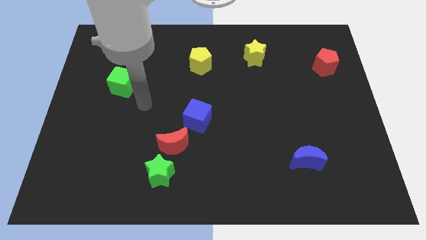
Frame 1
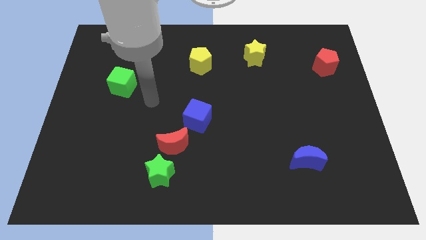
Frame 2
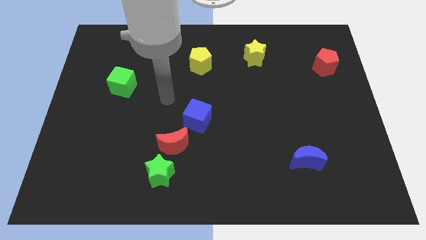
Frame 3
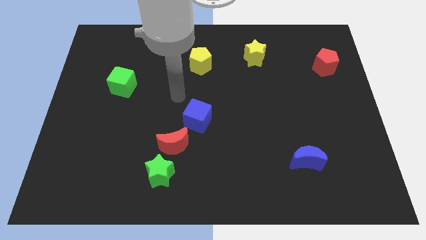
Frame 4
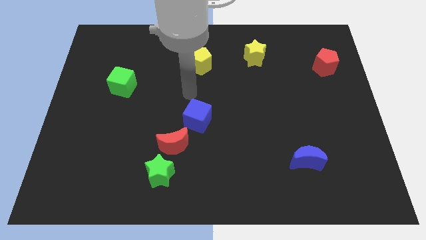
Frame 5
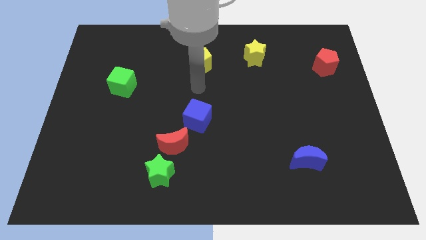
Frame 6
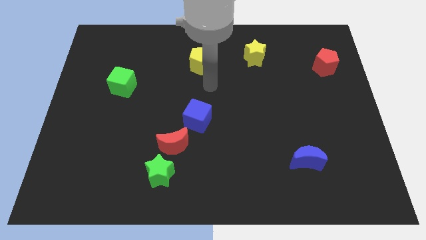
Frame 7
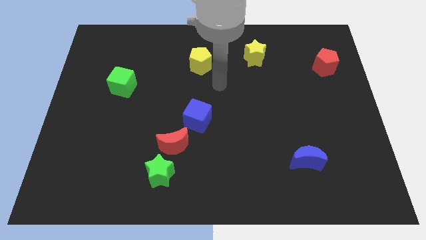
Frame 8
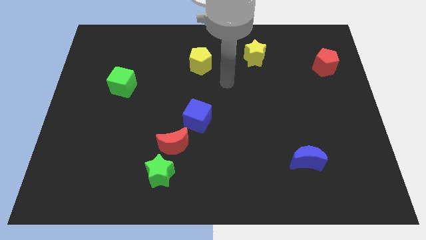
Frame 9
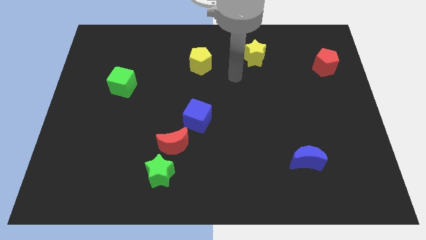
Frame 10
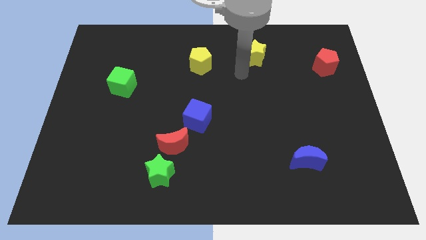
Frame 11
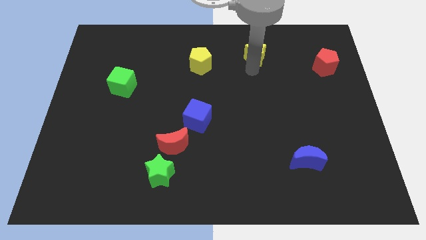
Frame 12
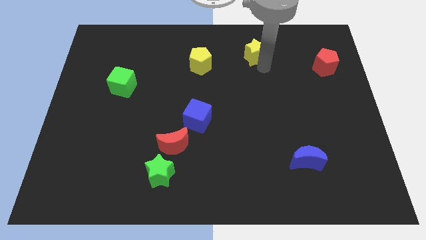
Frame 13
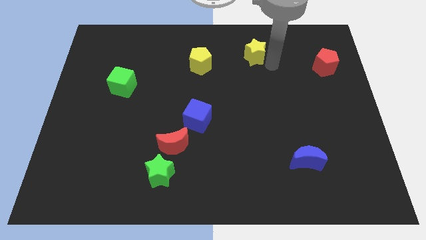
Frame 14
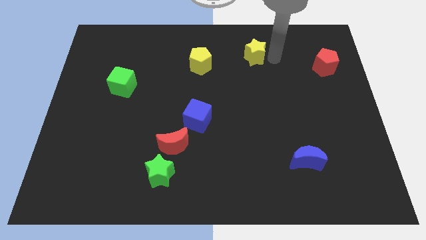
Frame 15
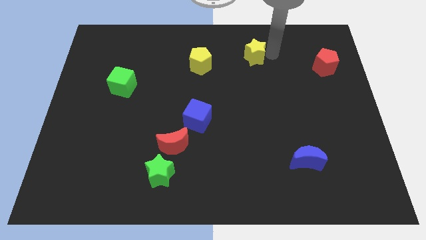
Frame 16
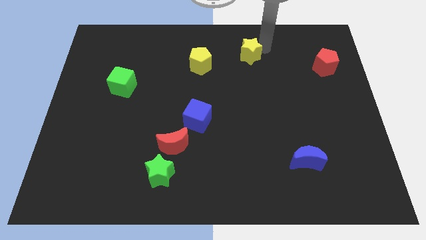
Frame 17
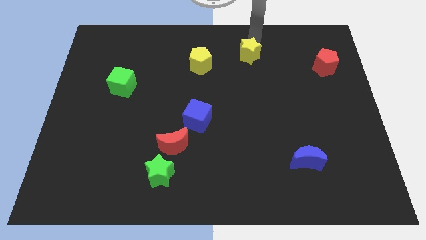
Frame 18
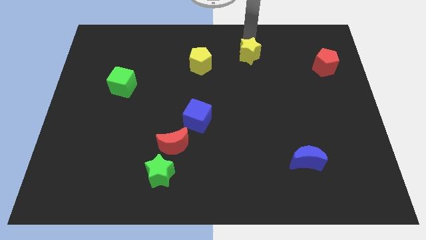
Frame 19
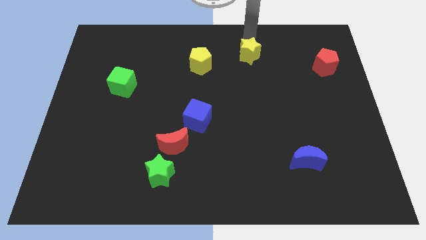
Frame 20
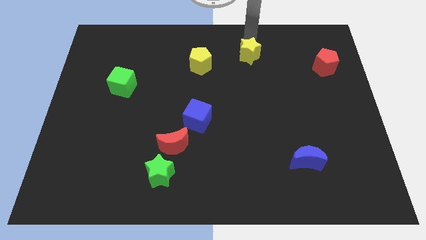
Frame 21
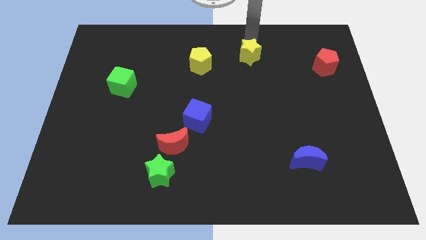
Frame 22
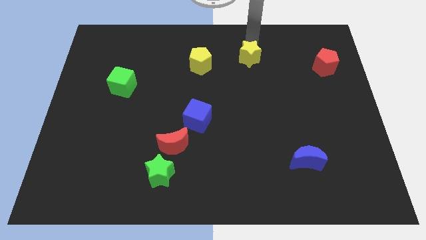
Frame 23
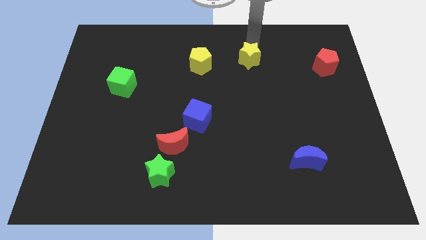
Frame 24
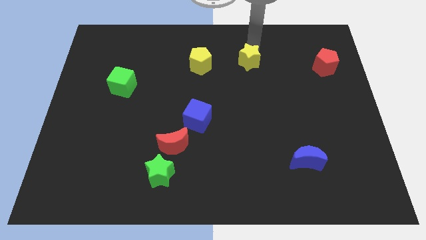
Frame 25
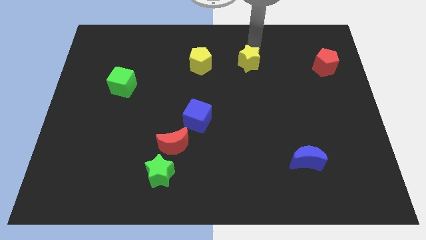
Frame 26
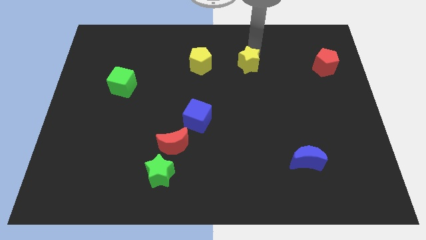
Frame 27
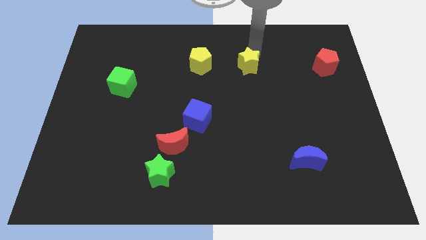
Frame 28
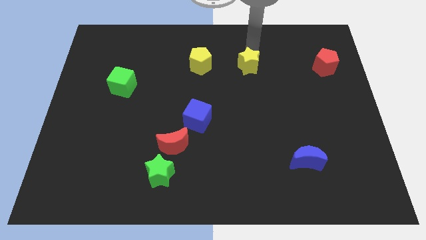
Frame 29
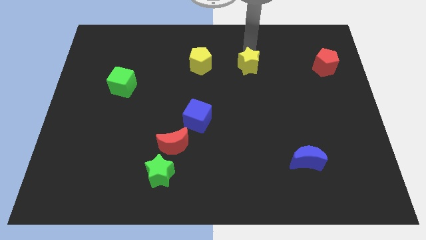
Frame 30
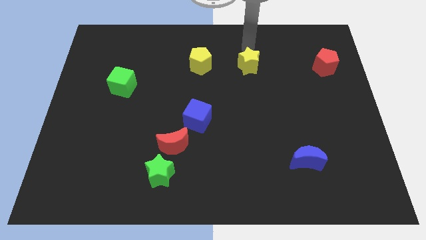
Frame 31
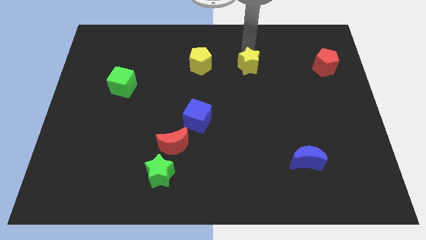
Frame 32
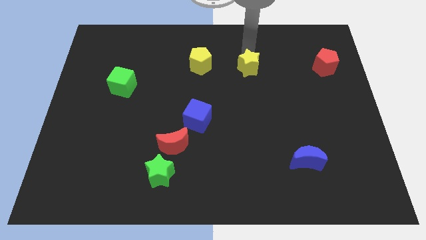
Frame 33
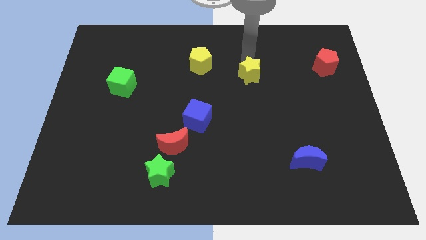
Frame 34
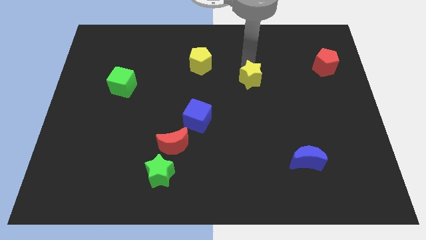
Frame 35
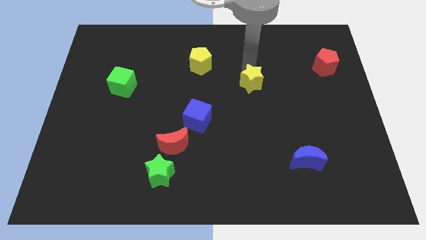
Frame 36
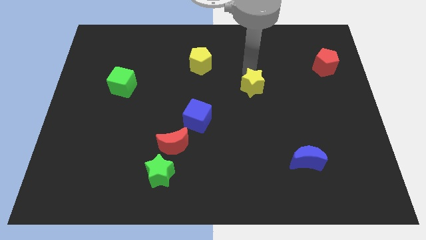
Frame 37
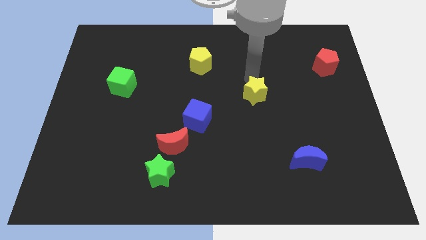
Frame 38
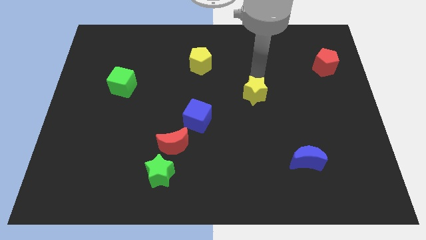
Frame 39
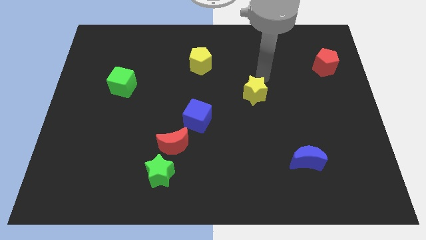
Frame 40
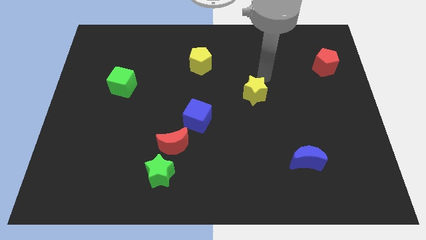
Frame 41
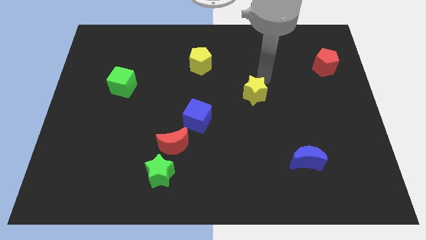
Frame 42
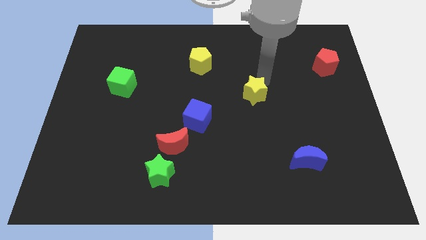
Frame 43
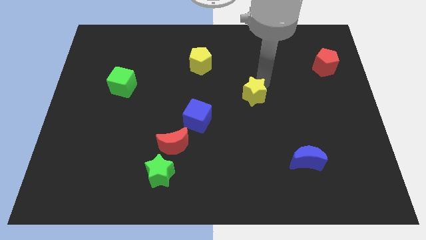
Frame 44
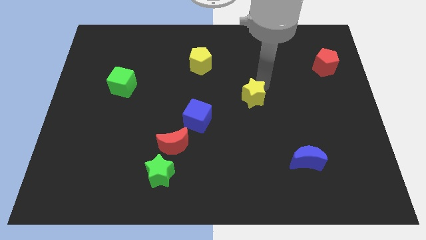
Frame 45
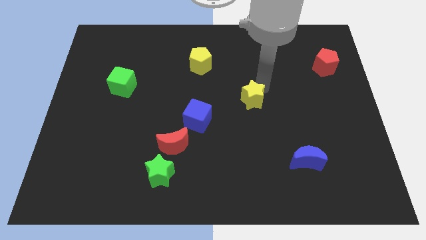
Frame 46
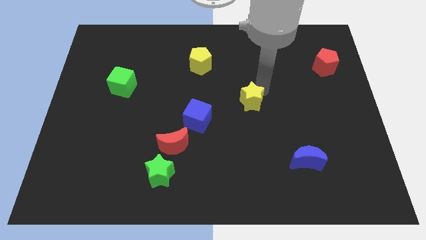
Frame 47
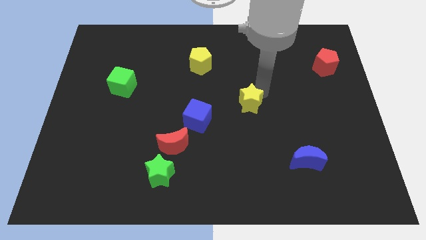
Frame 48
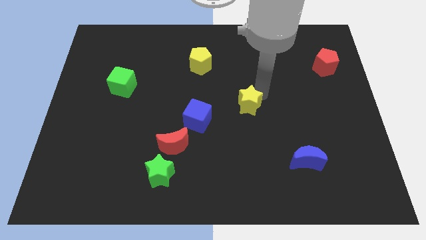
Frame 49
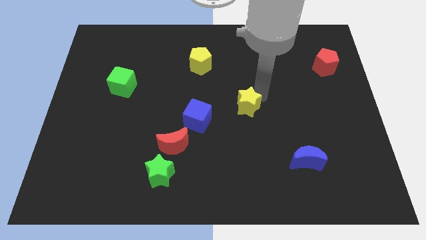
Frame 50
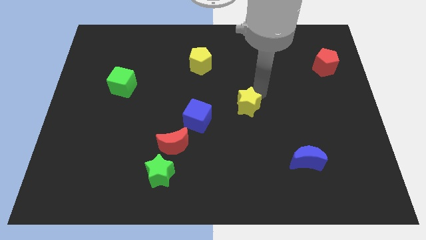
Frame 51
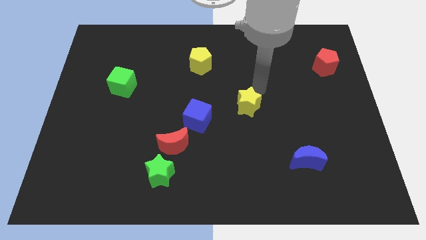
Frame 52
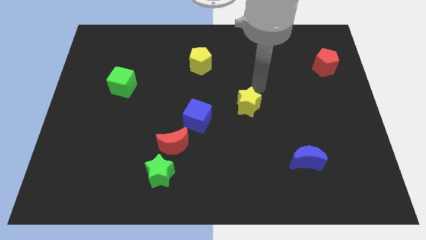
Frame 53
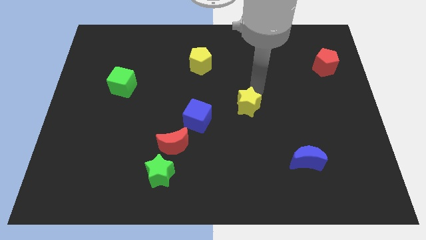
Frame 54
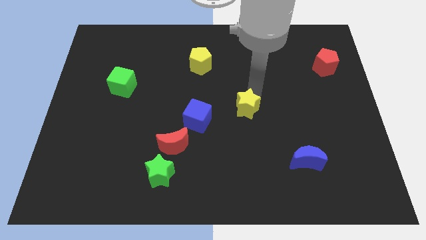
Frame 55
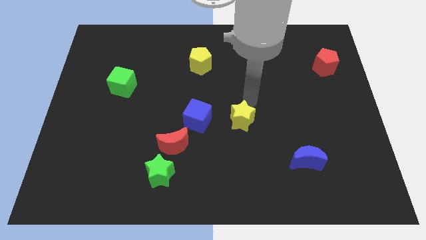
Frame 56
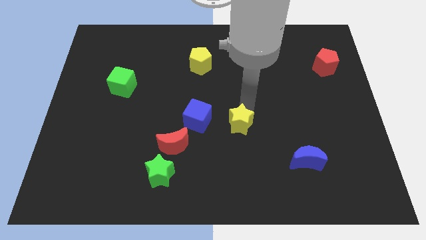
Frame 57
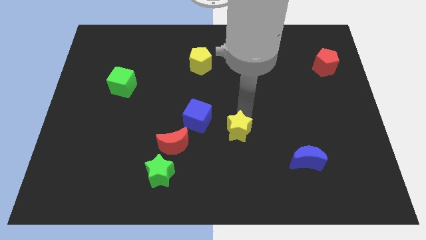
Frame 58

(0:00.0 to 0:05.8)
move the yellow star just right of the red moon

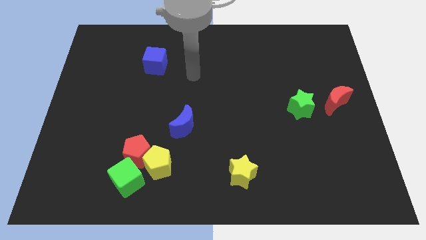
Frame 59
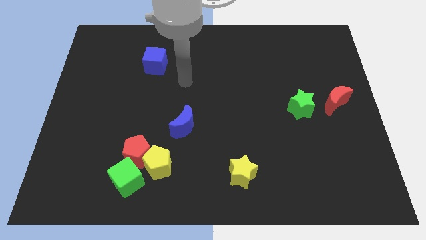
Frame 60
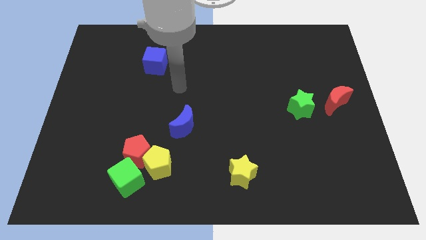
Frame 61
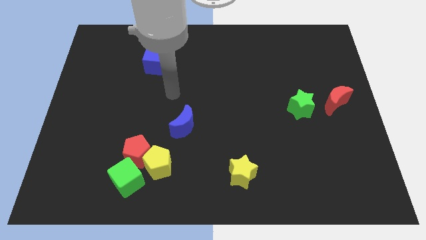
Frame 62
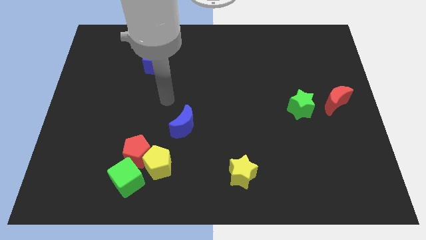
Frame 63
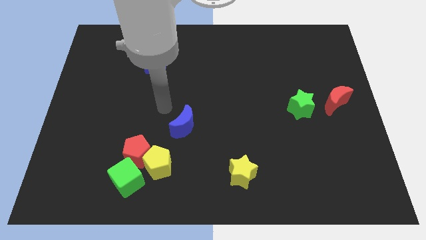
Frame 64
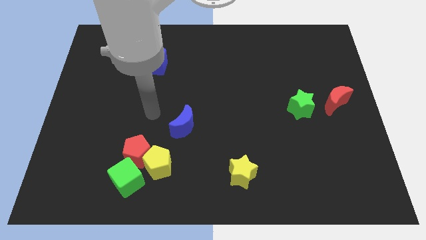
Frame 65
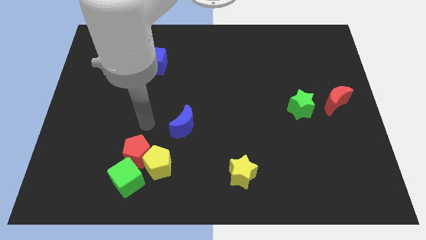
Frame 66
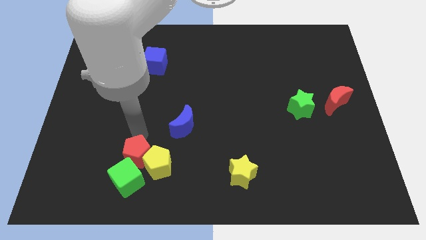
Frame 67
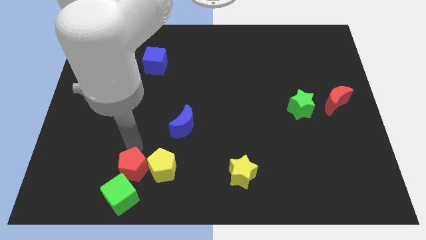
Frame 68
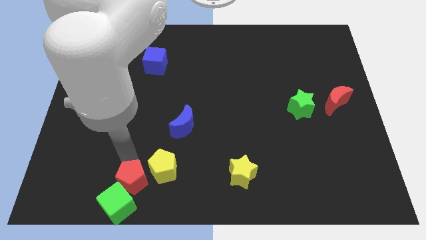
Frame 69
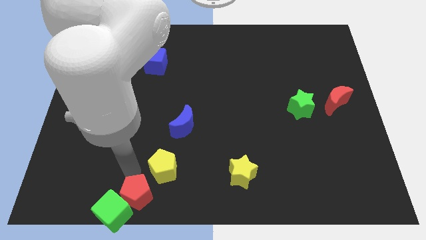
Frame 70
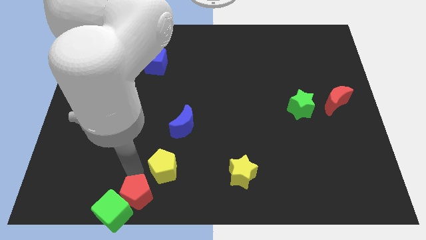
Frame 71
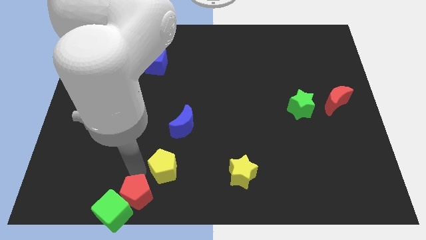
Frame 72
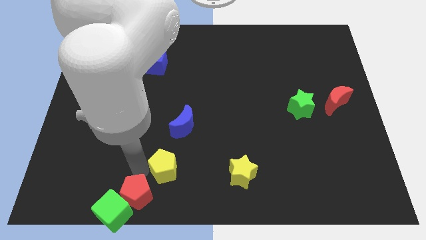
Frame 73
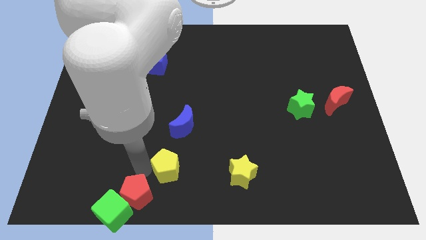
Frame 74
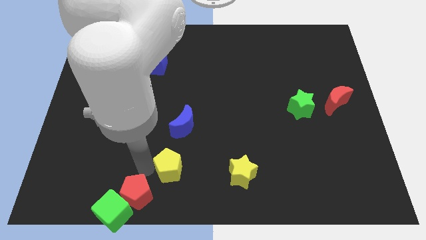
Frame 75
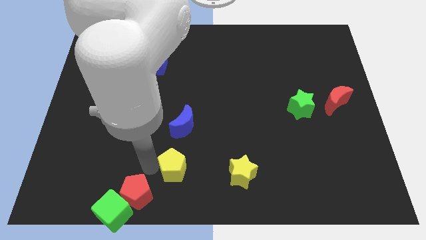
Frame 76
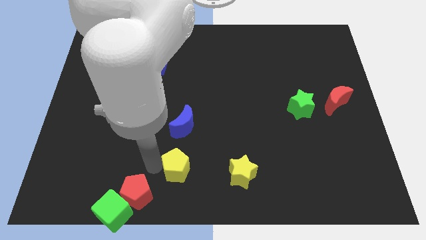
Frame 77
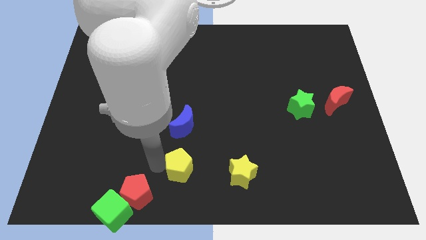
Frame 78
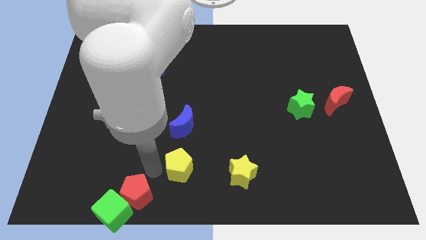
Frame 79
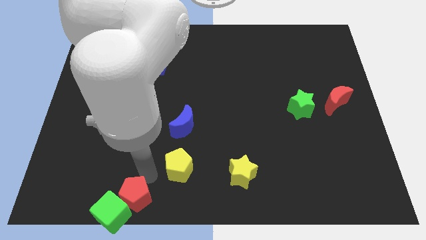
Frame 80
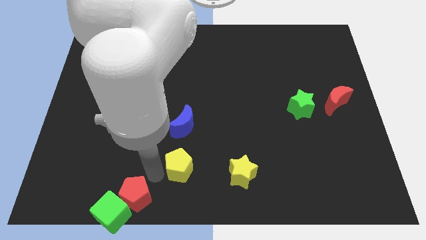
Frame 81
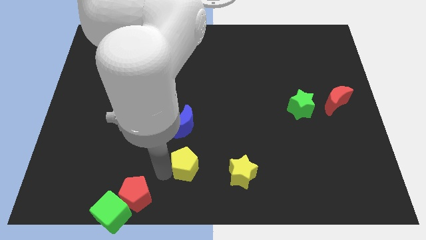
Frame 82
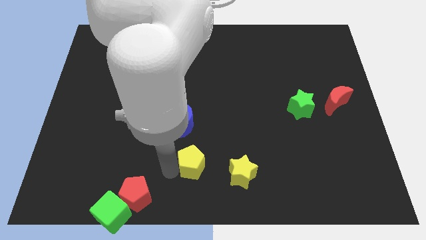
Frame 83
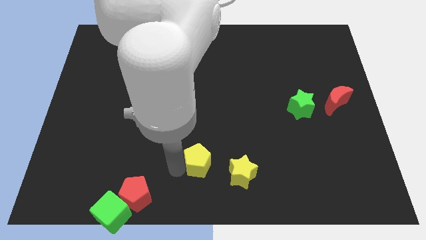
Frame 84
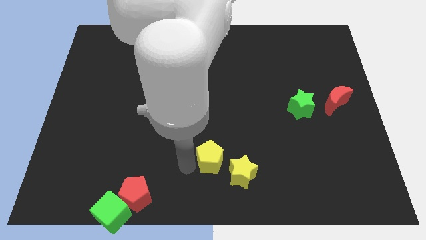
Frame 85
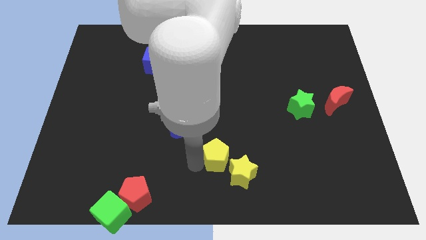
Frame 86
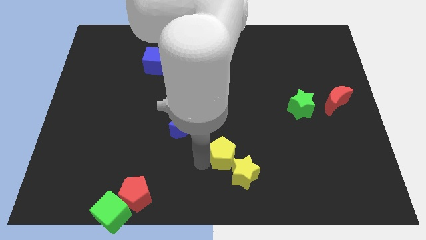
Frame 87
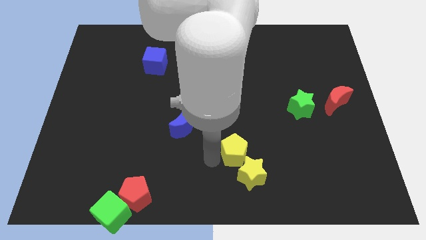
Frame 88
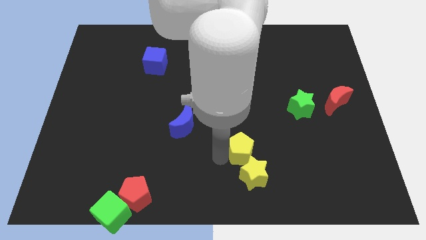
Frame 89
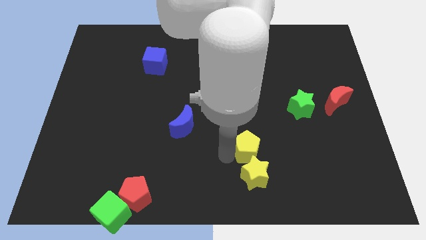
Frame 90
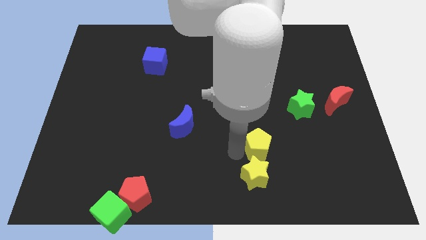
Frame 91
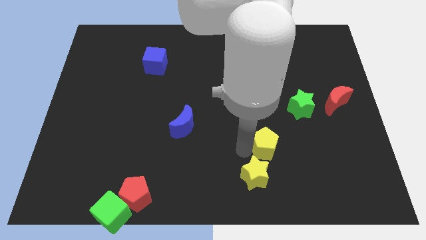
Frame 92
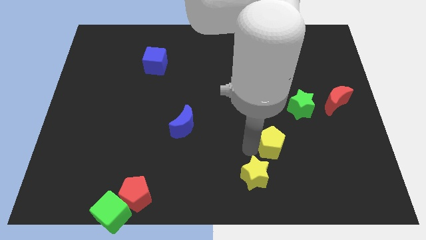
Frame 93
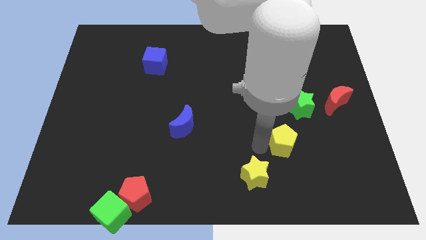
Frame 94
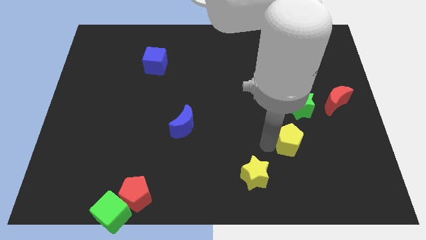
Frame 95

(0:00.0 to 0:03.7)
slide the yellow pentagon to the bottom of the green star
